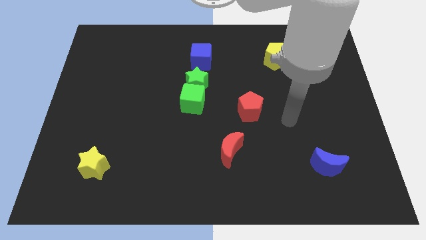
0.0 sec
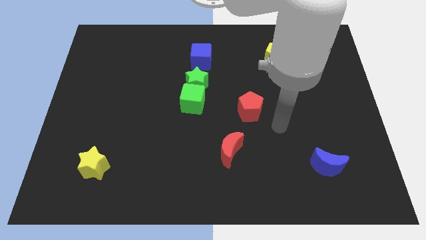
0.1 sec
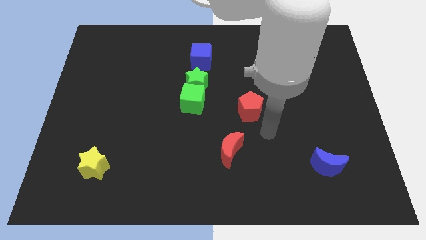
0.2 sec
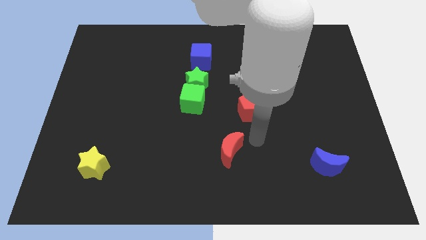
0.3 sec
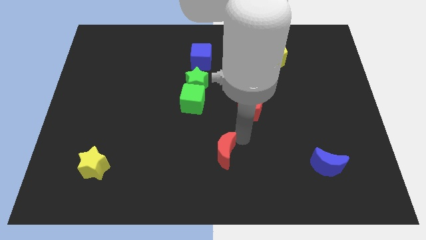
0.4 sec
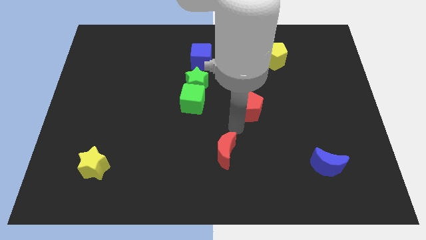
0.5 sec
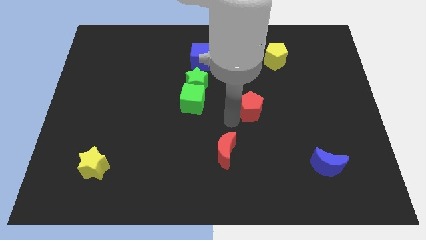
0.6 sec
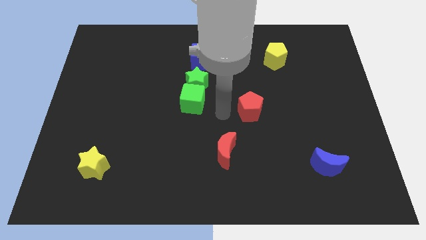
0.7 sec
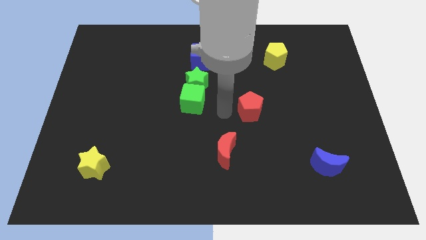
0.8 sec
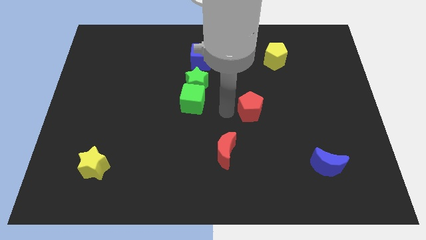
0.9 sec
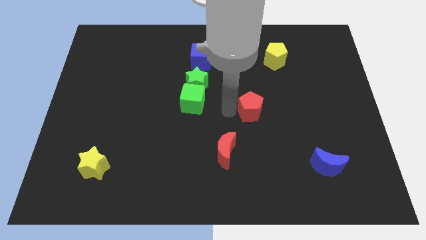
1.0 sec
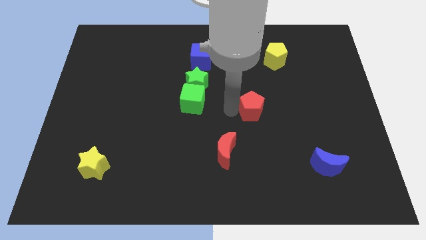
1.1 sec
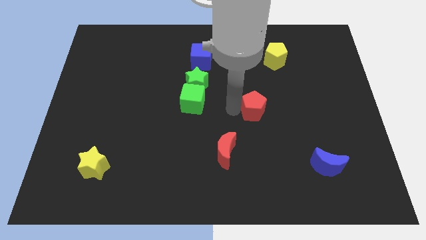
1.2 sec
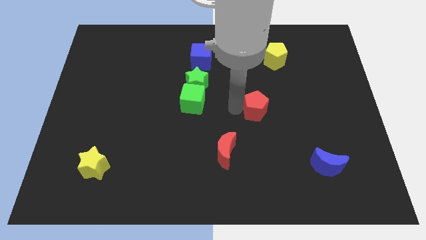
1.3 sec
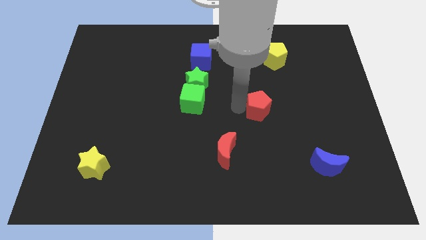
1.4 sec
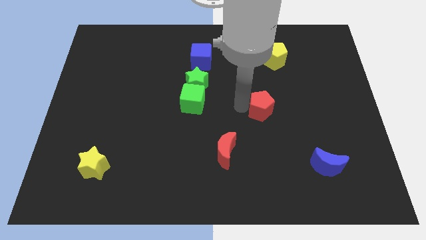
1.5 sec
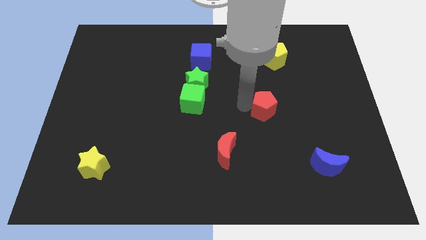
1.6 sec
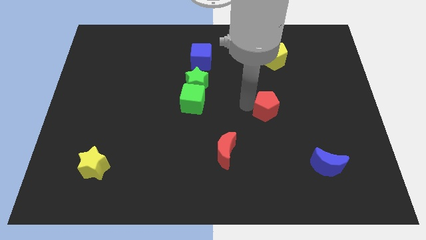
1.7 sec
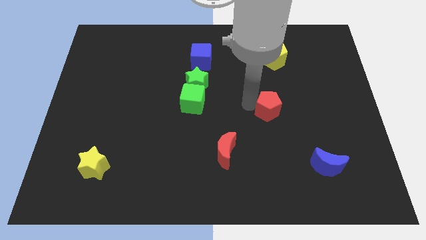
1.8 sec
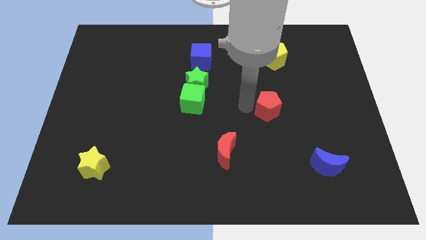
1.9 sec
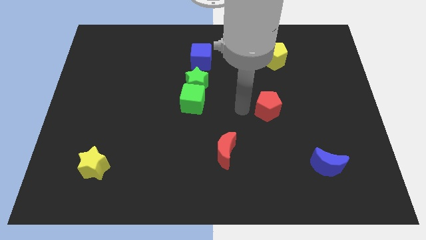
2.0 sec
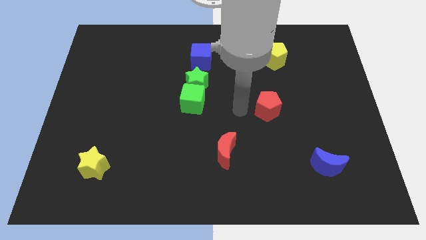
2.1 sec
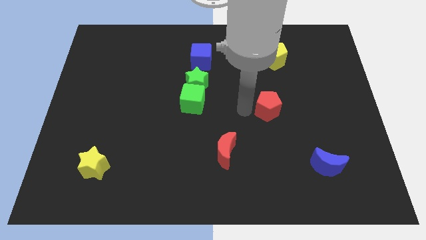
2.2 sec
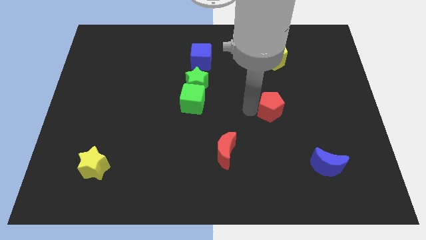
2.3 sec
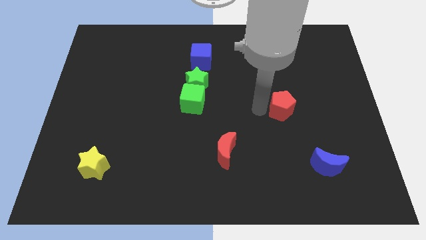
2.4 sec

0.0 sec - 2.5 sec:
slightly move the red pentagon right

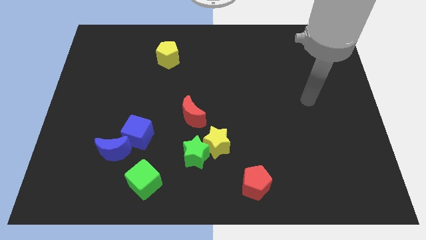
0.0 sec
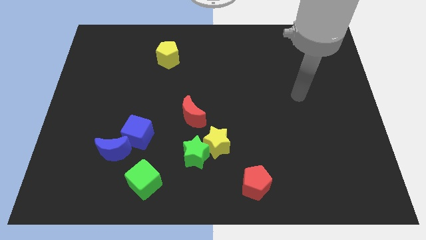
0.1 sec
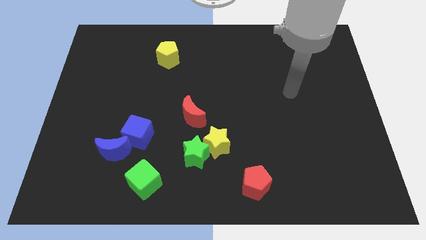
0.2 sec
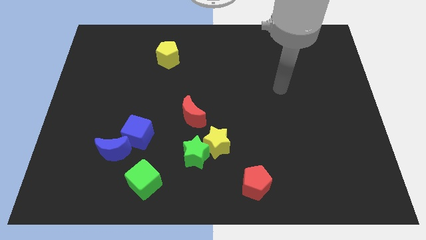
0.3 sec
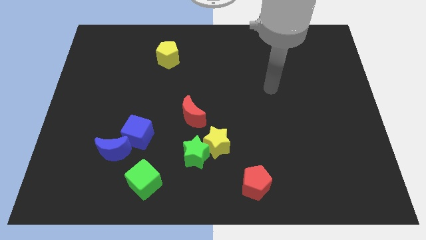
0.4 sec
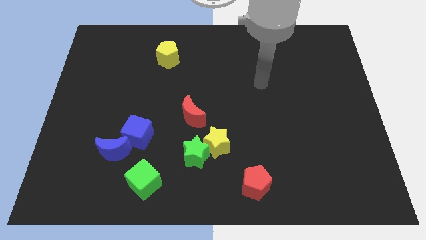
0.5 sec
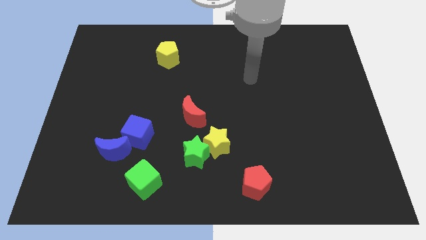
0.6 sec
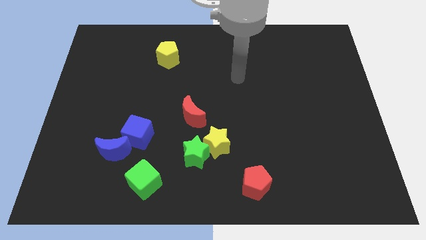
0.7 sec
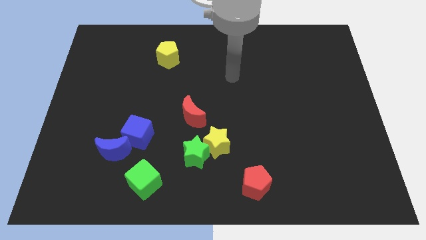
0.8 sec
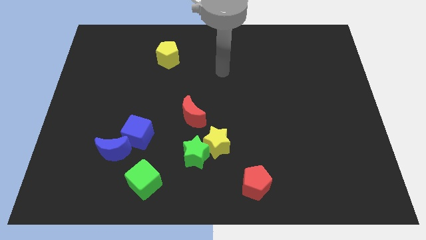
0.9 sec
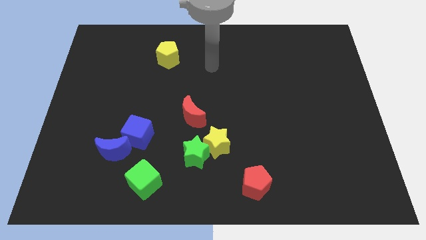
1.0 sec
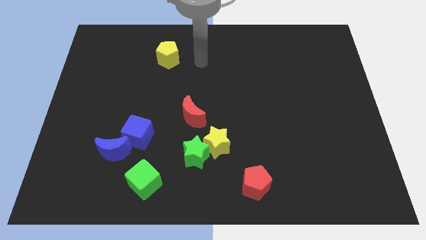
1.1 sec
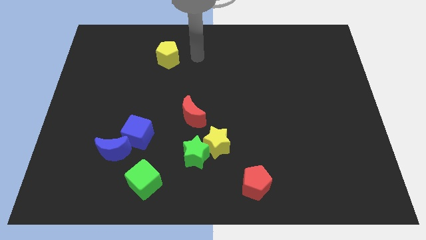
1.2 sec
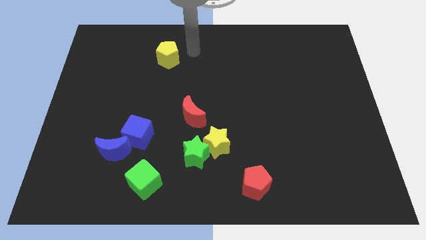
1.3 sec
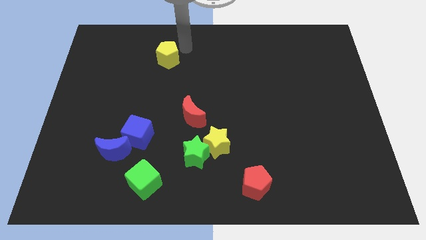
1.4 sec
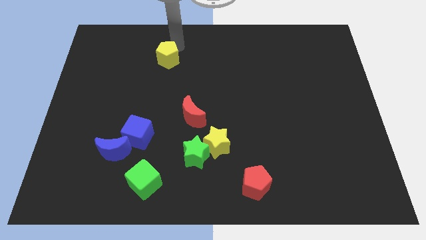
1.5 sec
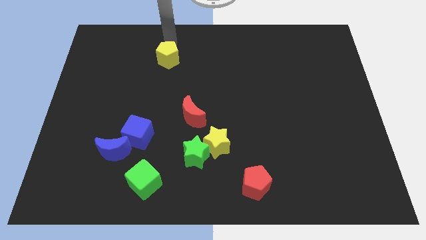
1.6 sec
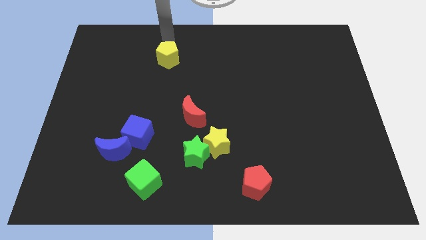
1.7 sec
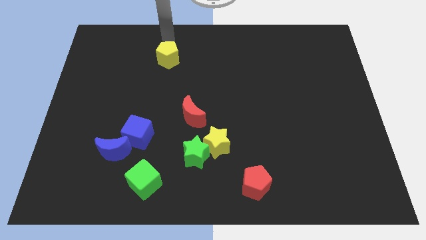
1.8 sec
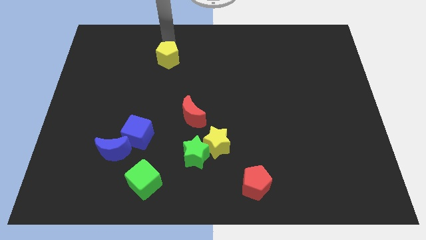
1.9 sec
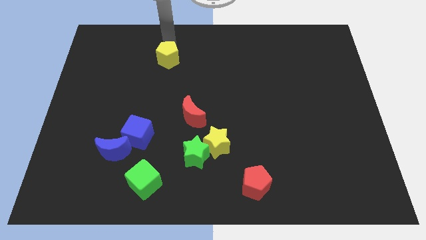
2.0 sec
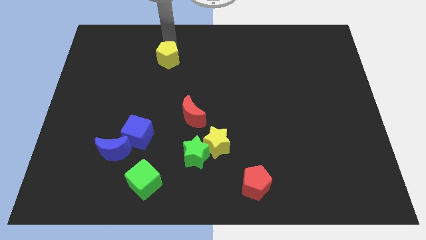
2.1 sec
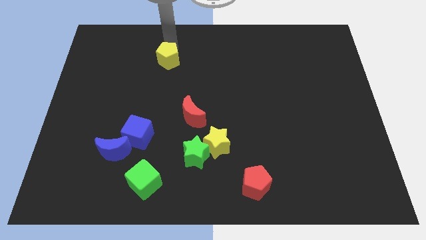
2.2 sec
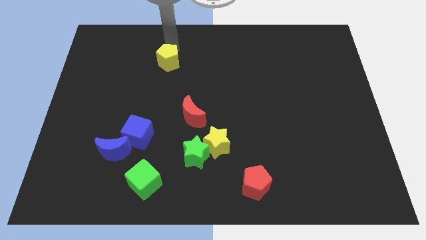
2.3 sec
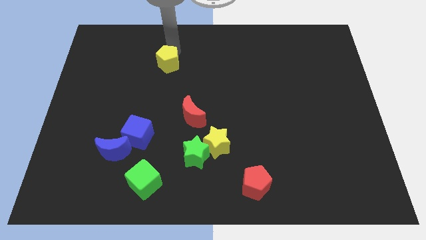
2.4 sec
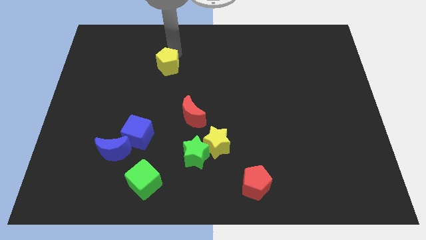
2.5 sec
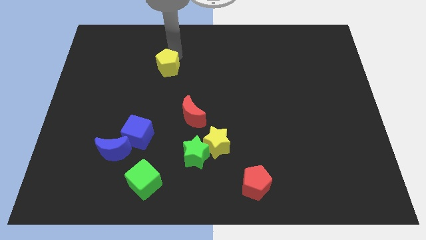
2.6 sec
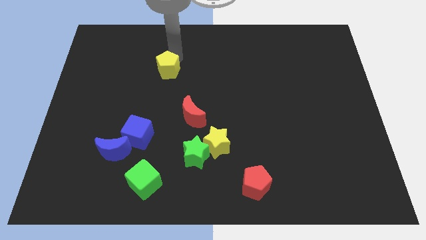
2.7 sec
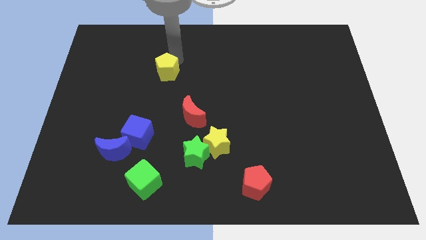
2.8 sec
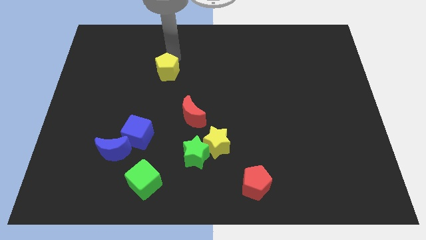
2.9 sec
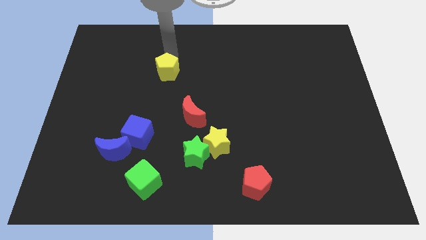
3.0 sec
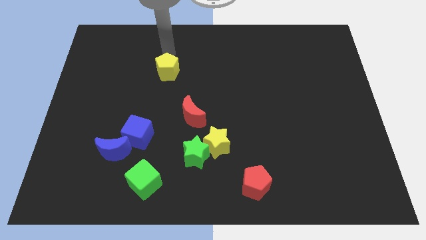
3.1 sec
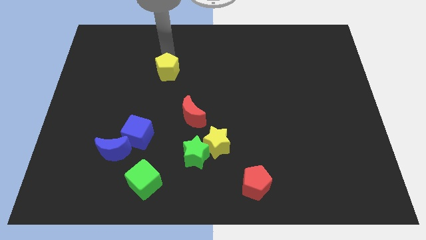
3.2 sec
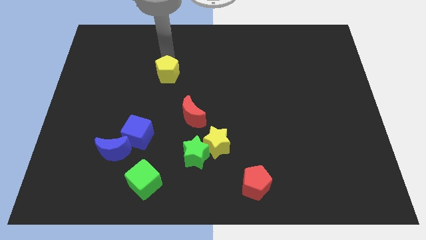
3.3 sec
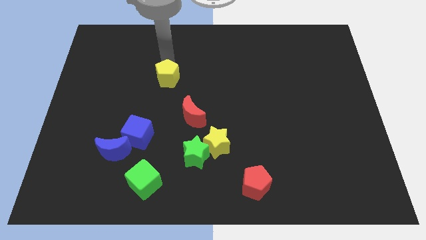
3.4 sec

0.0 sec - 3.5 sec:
slightly move the yellow pentagon down

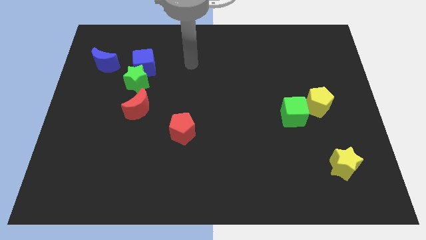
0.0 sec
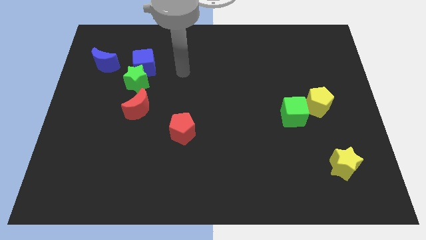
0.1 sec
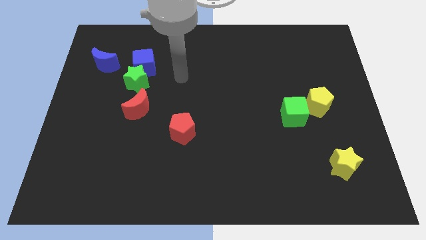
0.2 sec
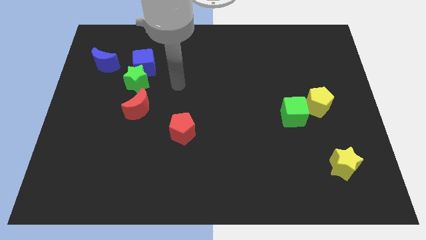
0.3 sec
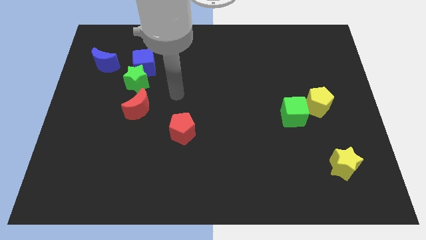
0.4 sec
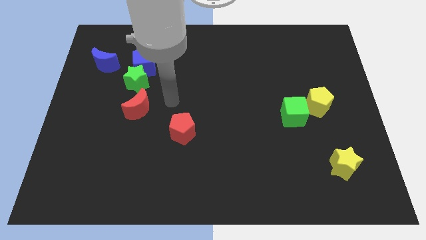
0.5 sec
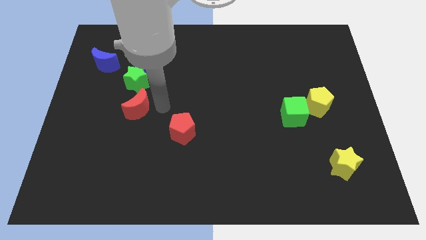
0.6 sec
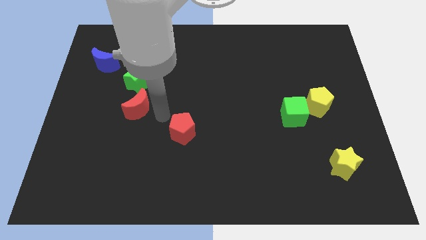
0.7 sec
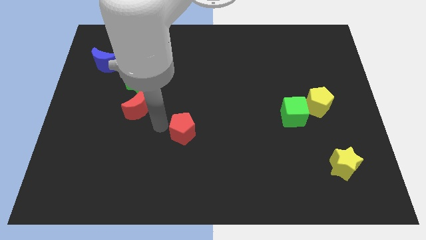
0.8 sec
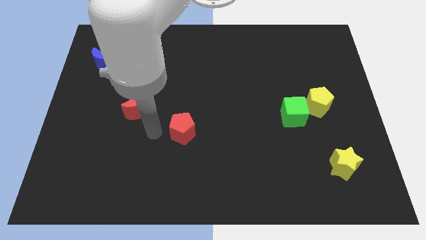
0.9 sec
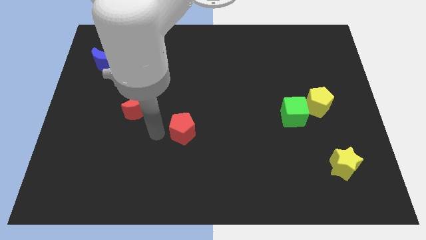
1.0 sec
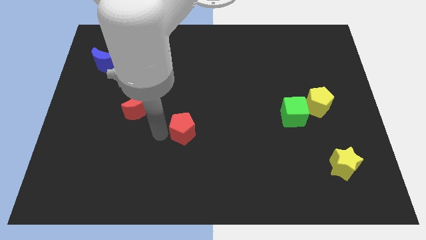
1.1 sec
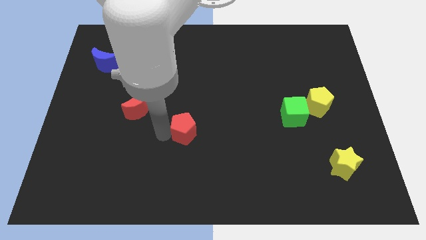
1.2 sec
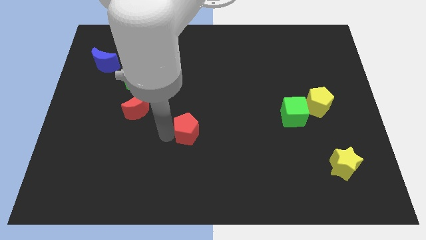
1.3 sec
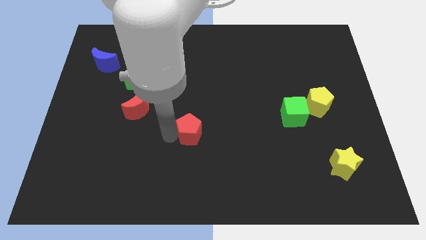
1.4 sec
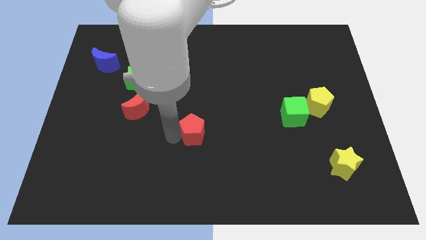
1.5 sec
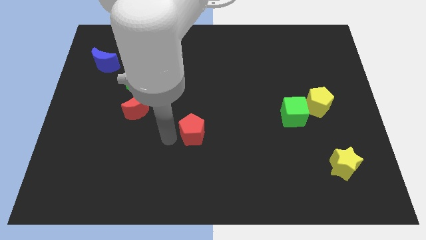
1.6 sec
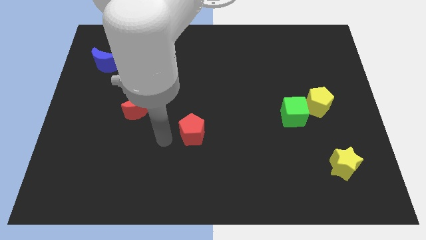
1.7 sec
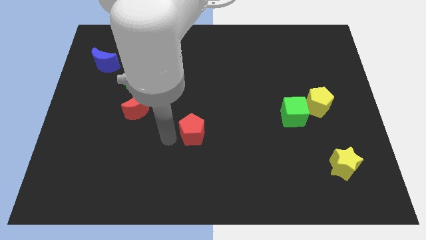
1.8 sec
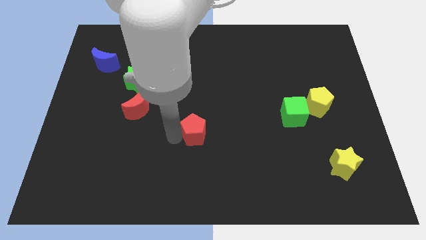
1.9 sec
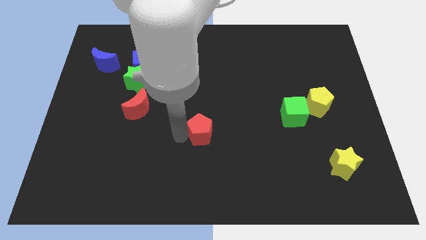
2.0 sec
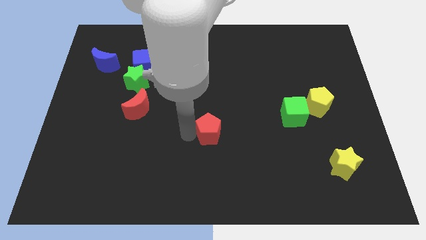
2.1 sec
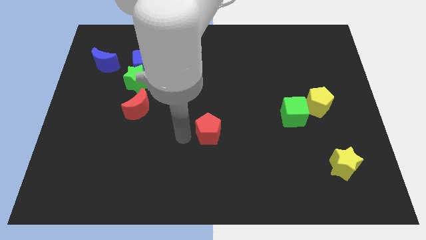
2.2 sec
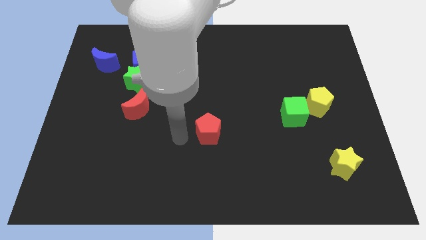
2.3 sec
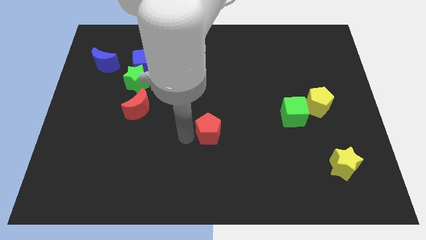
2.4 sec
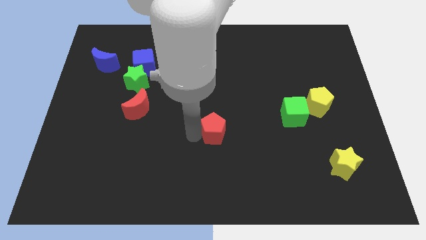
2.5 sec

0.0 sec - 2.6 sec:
move the red pentagon right a little bit

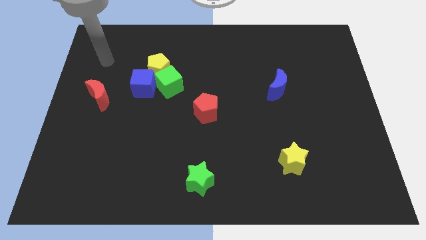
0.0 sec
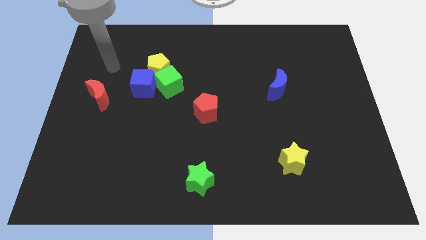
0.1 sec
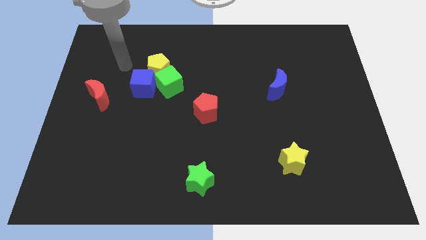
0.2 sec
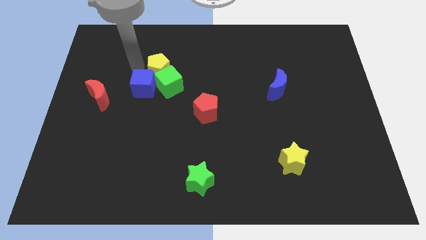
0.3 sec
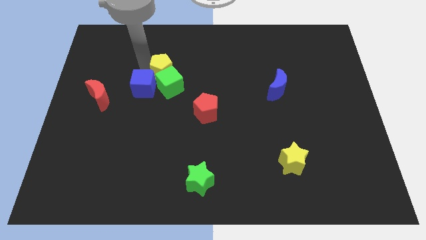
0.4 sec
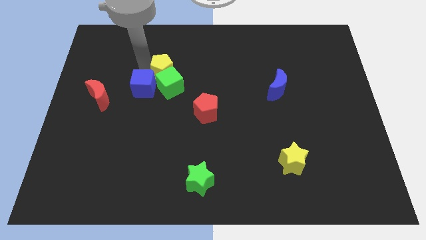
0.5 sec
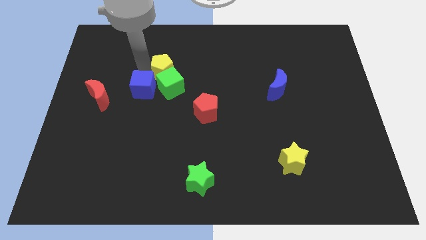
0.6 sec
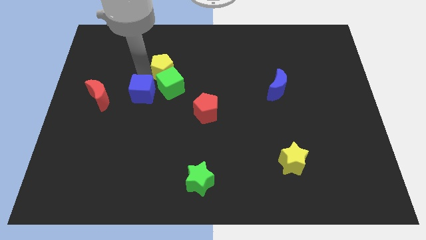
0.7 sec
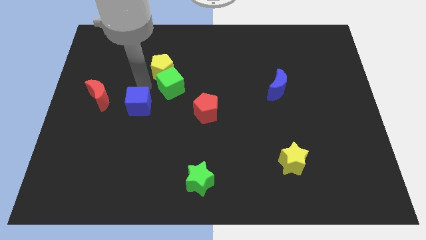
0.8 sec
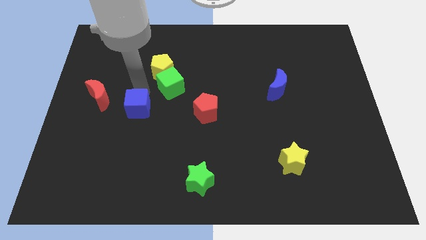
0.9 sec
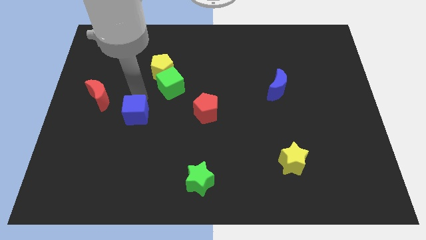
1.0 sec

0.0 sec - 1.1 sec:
move the blue cube down somewhat
